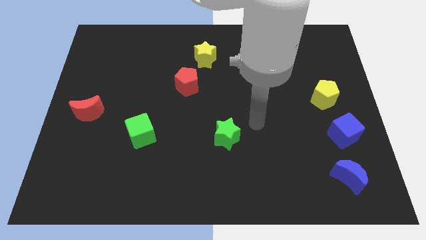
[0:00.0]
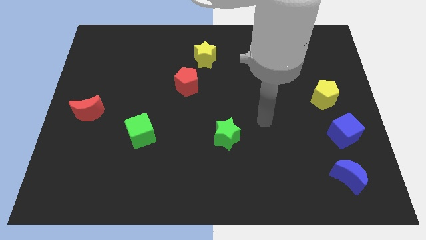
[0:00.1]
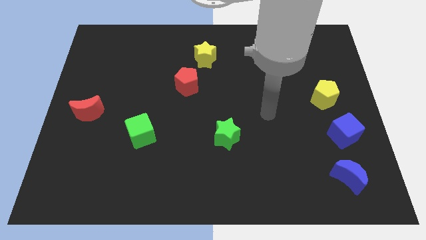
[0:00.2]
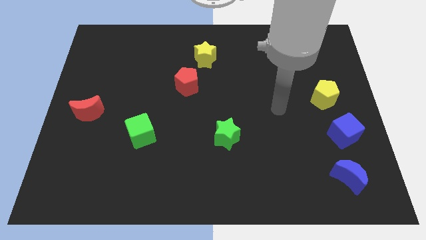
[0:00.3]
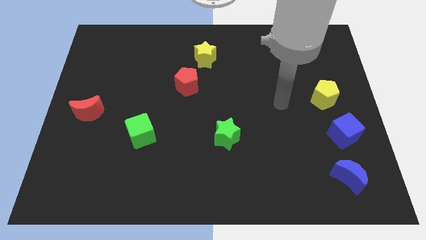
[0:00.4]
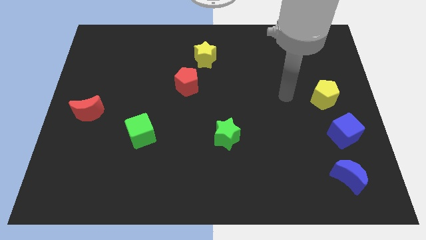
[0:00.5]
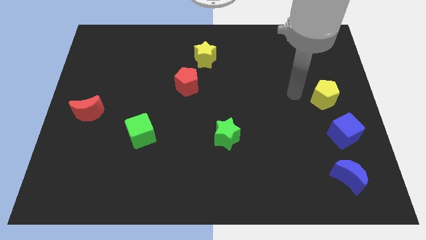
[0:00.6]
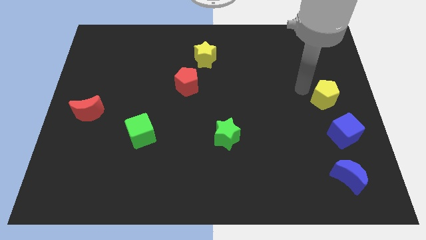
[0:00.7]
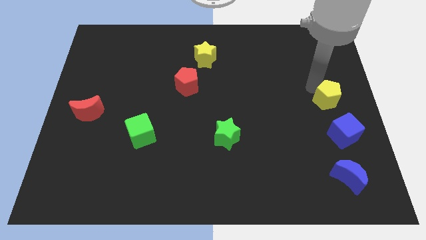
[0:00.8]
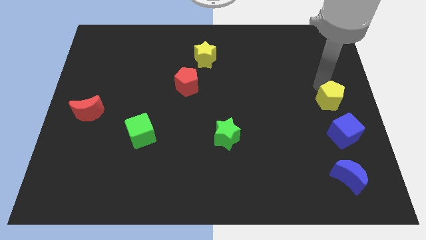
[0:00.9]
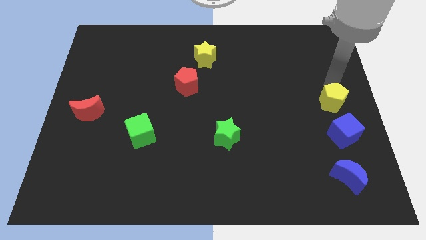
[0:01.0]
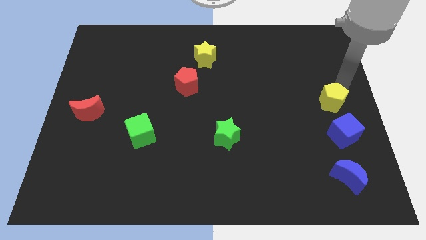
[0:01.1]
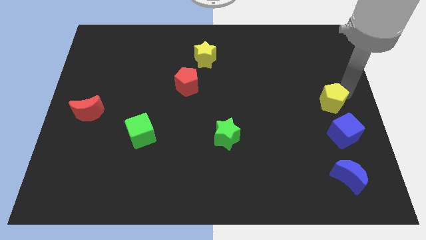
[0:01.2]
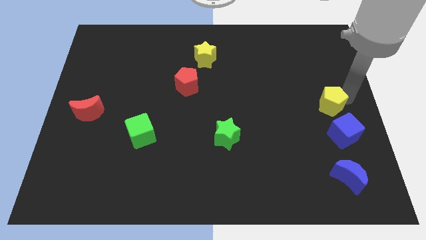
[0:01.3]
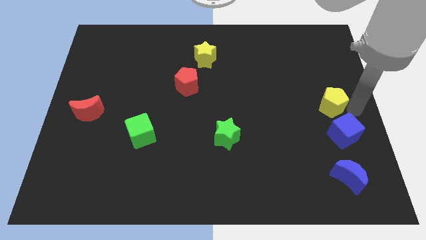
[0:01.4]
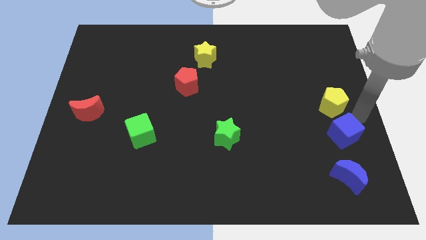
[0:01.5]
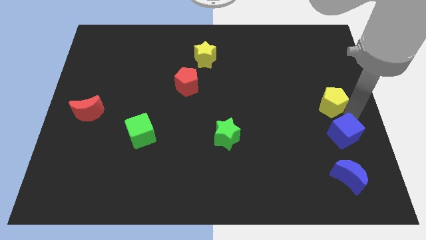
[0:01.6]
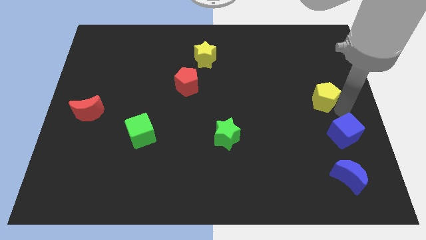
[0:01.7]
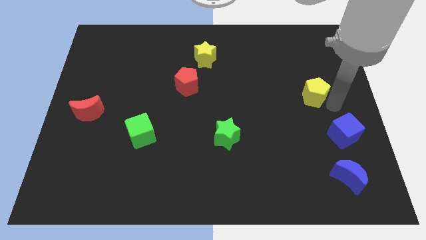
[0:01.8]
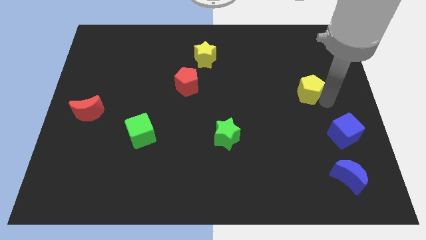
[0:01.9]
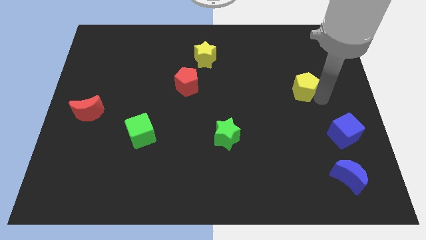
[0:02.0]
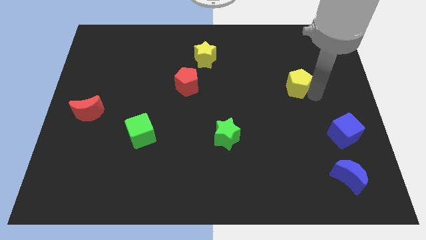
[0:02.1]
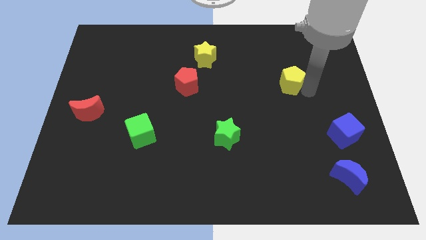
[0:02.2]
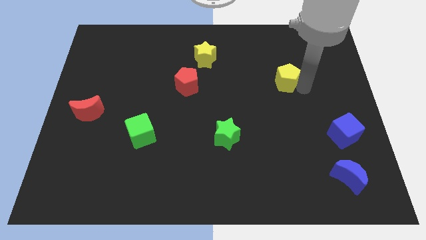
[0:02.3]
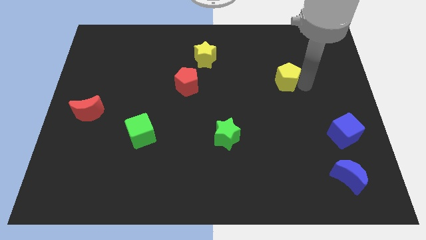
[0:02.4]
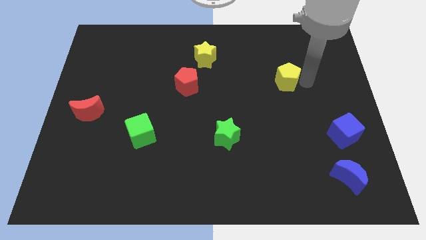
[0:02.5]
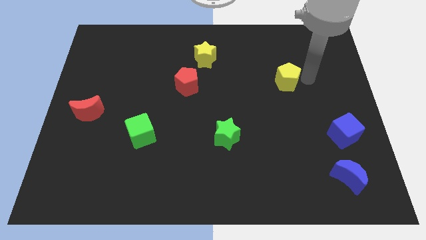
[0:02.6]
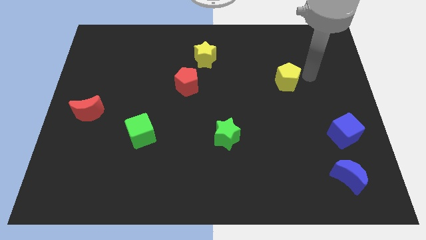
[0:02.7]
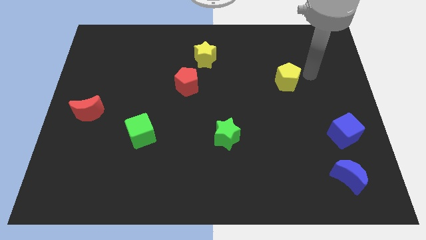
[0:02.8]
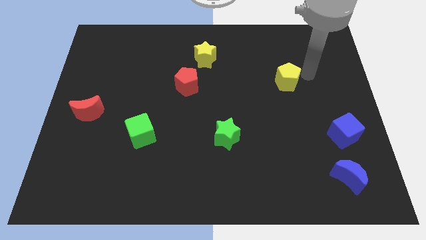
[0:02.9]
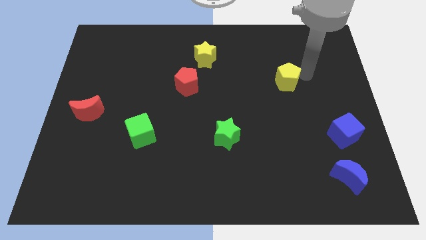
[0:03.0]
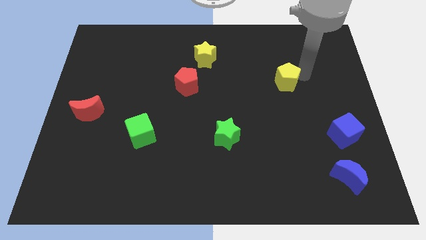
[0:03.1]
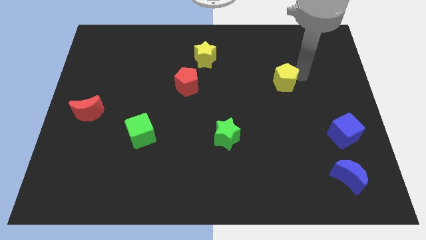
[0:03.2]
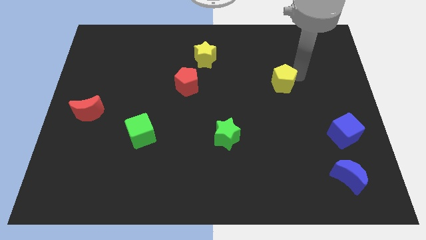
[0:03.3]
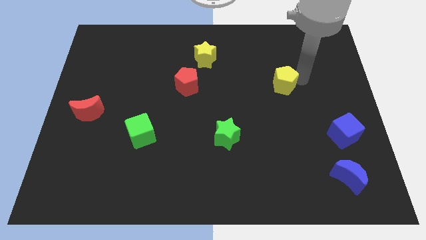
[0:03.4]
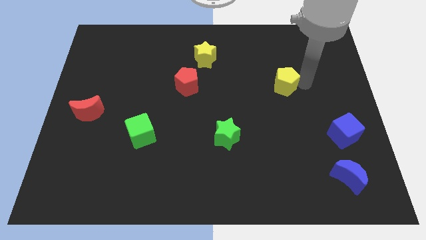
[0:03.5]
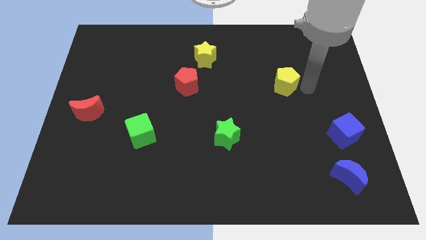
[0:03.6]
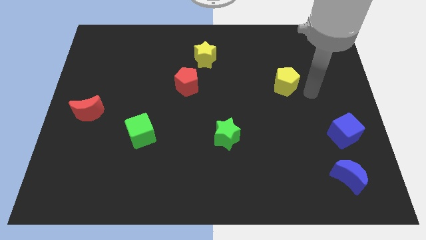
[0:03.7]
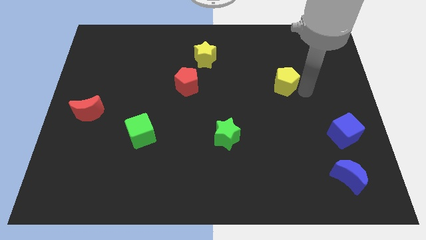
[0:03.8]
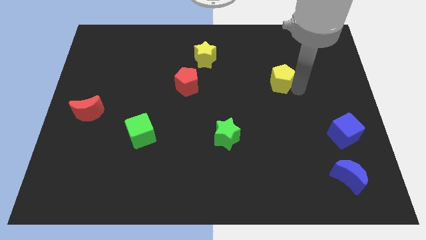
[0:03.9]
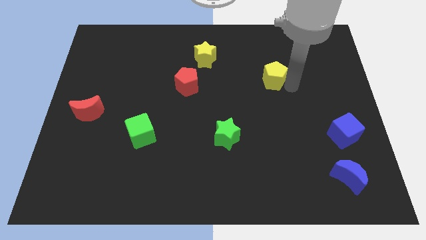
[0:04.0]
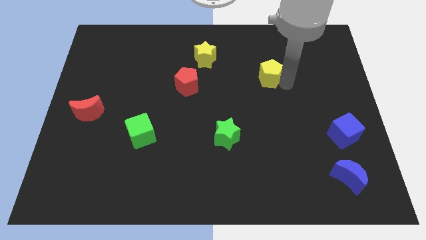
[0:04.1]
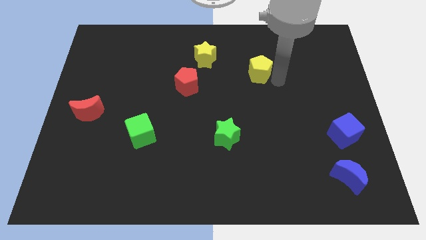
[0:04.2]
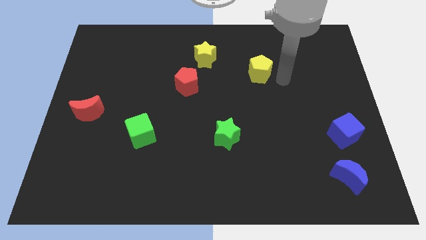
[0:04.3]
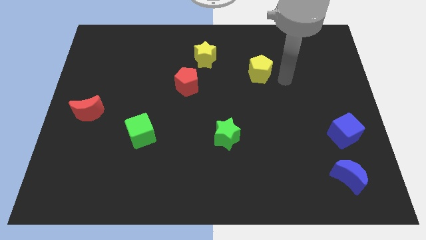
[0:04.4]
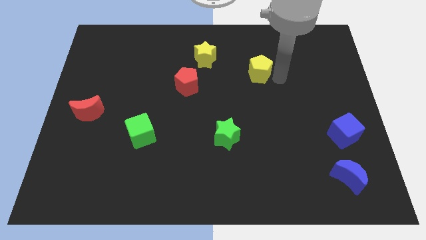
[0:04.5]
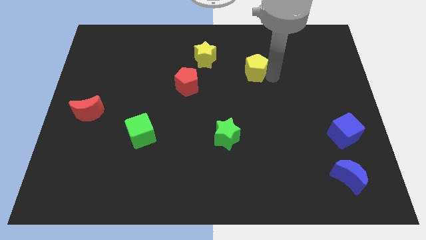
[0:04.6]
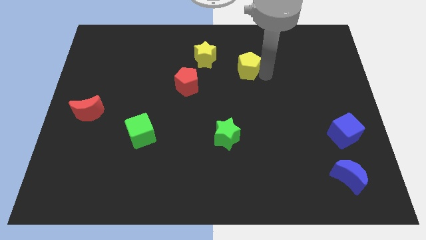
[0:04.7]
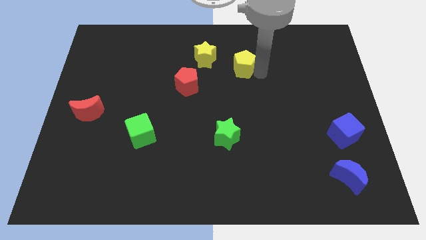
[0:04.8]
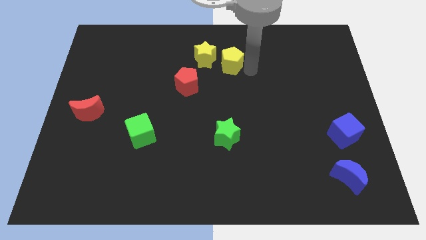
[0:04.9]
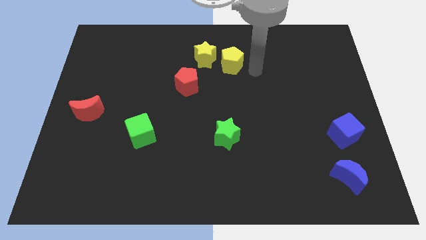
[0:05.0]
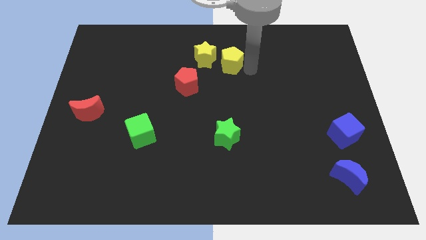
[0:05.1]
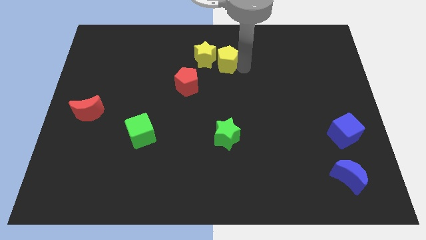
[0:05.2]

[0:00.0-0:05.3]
push the yellow pentagon close to the yellow star

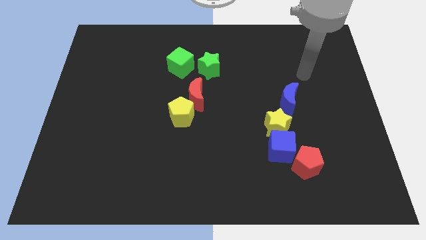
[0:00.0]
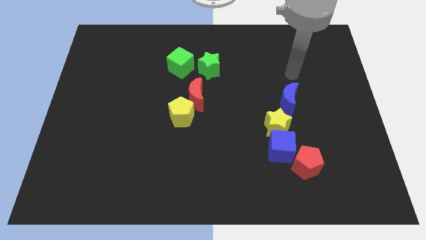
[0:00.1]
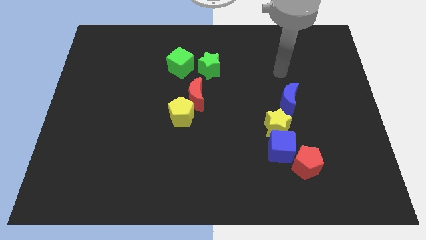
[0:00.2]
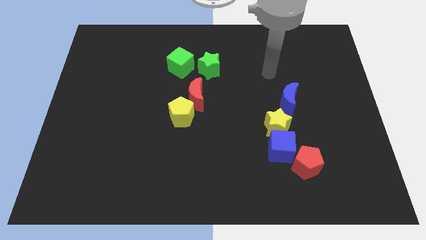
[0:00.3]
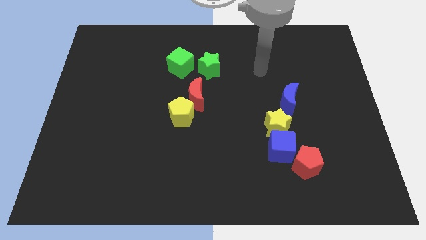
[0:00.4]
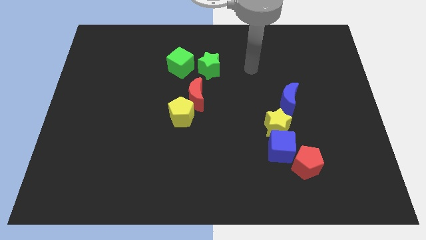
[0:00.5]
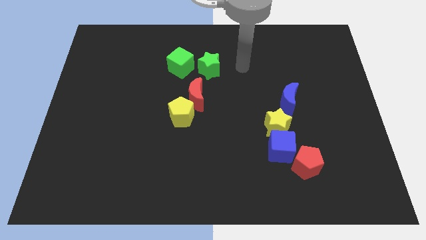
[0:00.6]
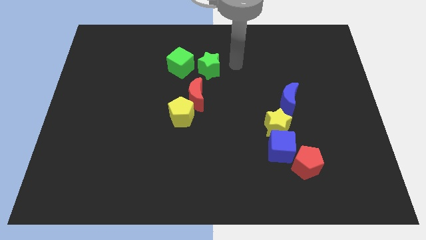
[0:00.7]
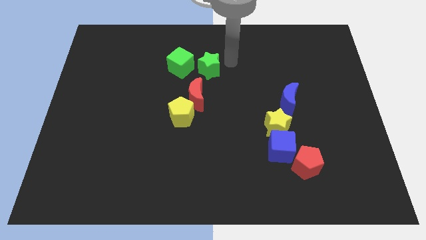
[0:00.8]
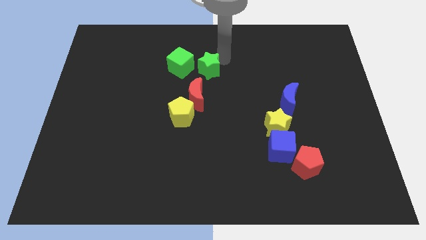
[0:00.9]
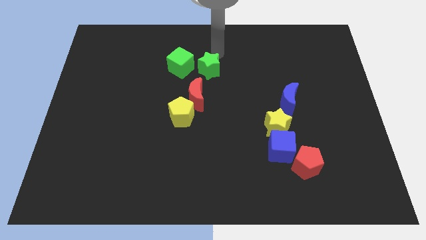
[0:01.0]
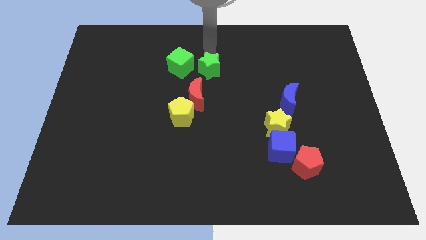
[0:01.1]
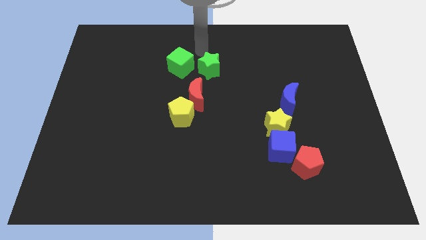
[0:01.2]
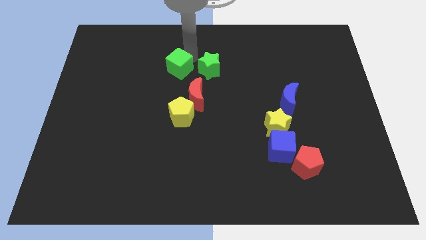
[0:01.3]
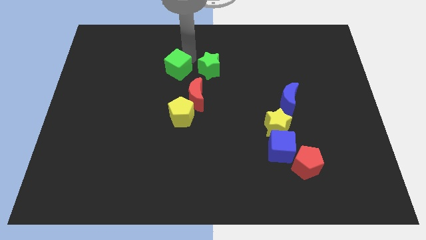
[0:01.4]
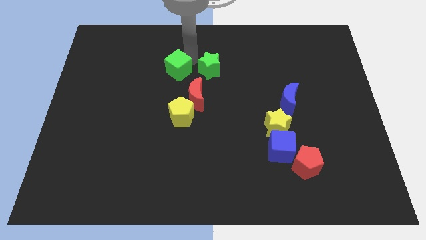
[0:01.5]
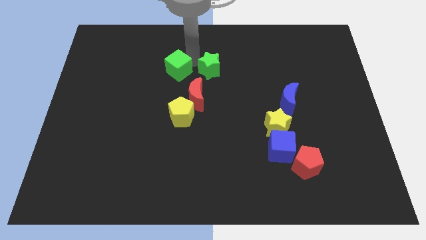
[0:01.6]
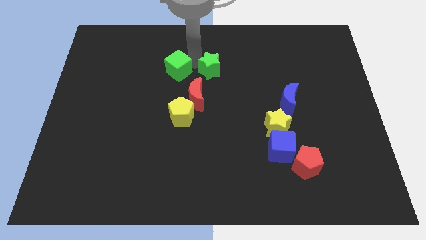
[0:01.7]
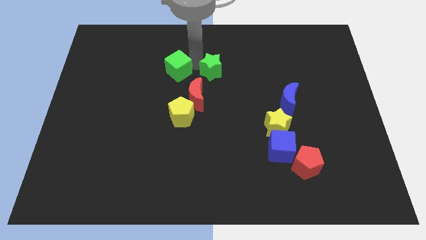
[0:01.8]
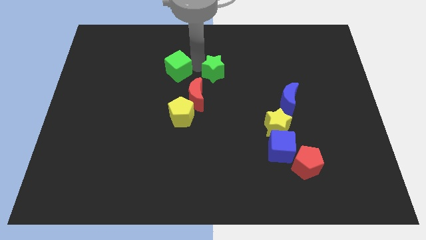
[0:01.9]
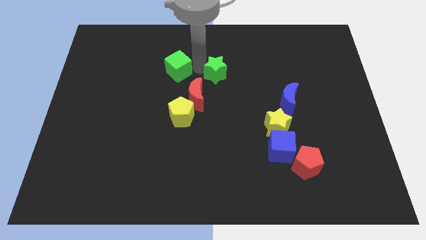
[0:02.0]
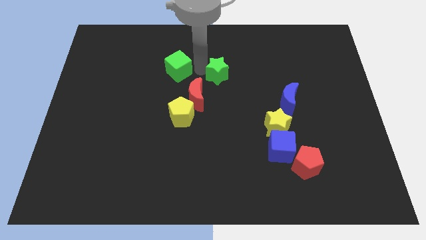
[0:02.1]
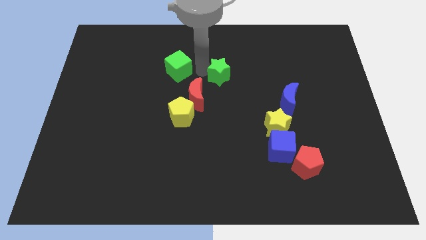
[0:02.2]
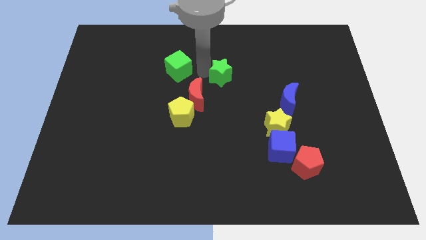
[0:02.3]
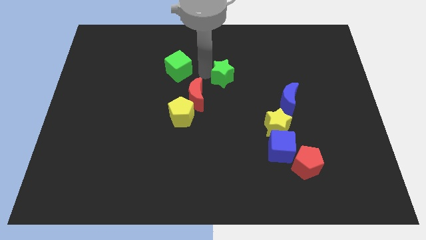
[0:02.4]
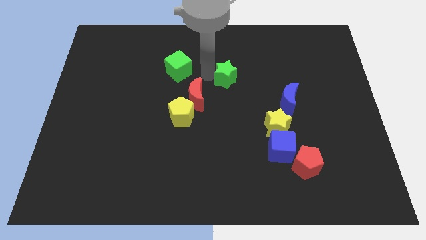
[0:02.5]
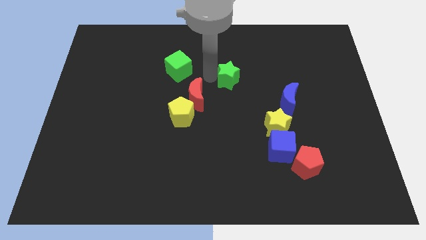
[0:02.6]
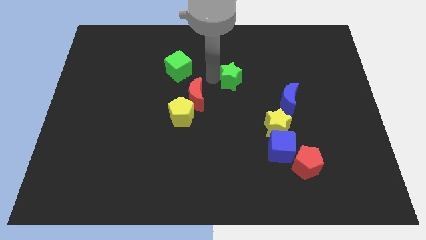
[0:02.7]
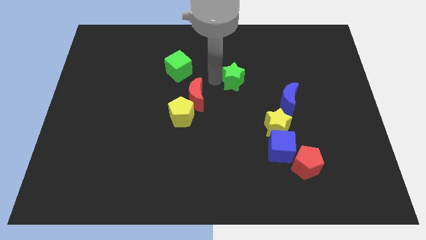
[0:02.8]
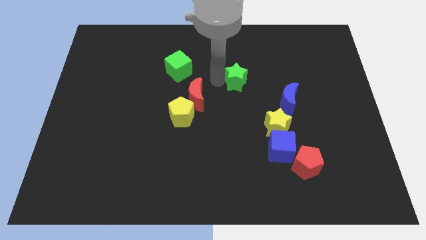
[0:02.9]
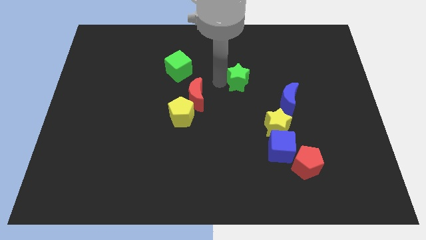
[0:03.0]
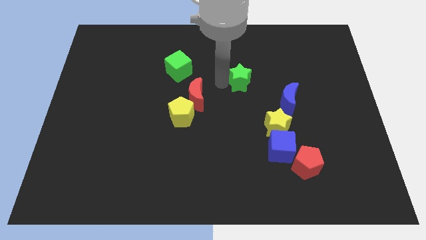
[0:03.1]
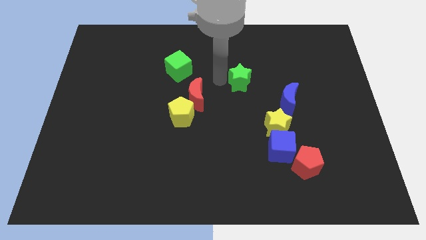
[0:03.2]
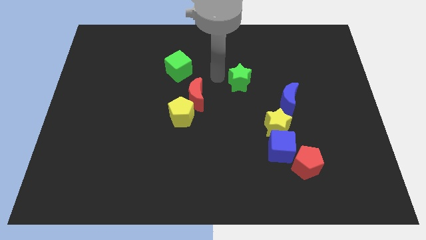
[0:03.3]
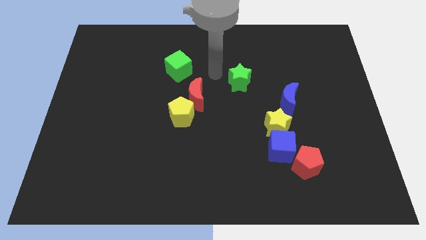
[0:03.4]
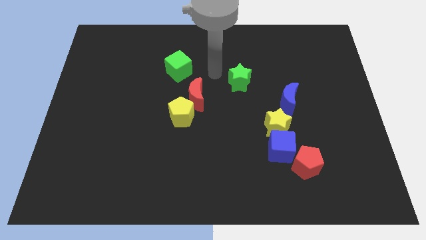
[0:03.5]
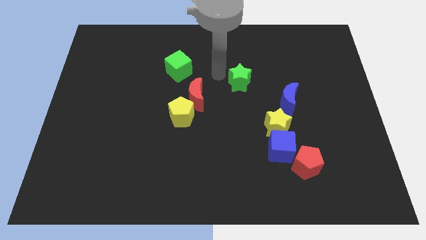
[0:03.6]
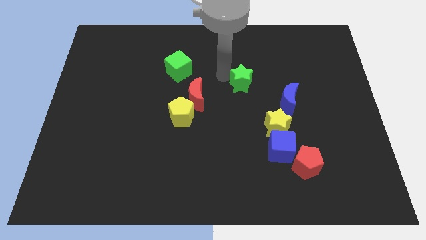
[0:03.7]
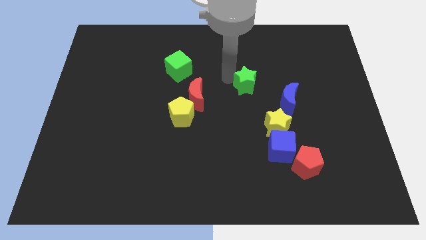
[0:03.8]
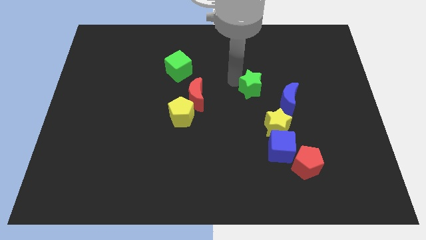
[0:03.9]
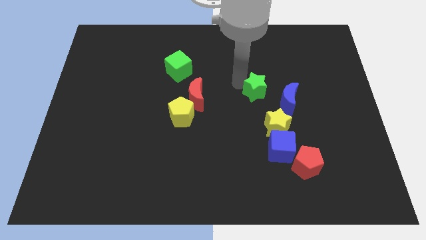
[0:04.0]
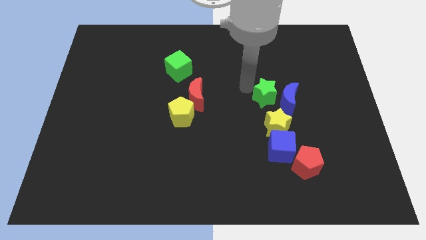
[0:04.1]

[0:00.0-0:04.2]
put the green star to the blue moon
